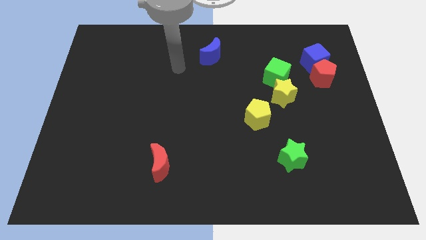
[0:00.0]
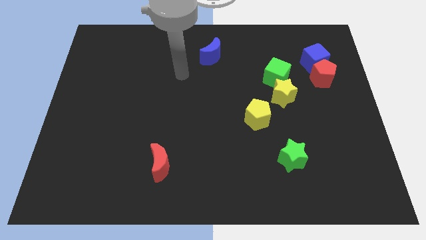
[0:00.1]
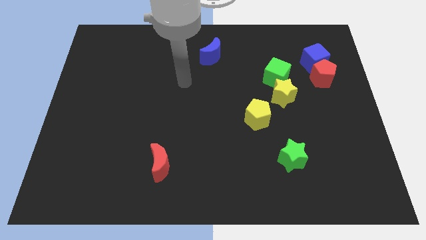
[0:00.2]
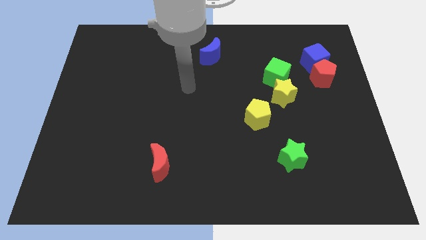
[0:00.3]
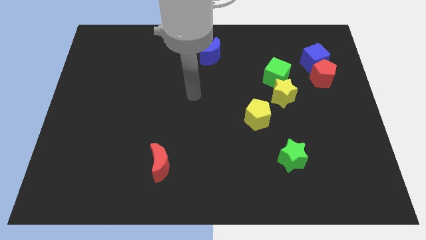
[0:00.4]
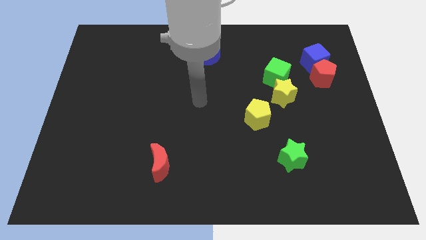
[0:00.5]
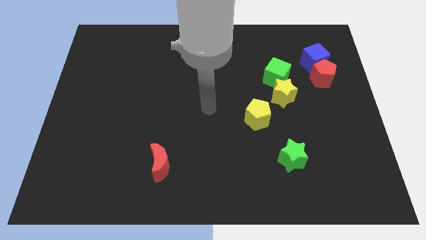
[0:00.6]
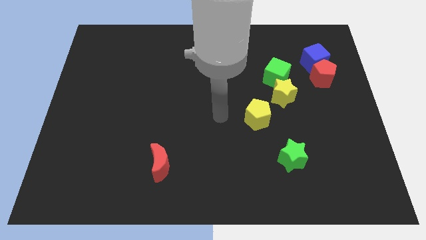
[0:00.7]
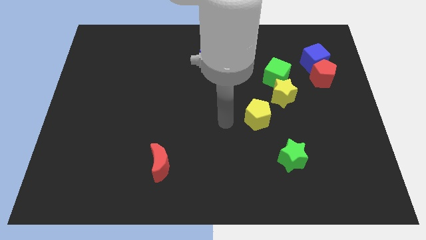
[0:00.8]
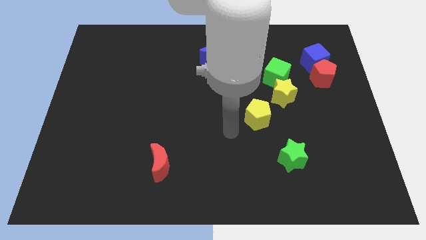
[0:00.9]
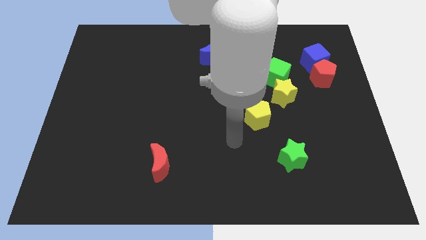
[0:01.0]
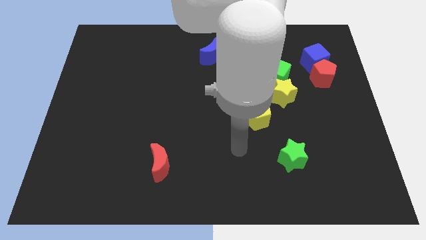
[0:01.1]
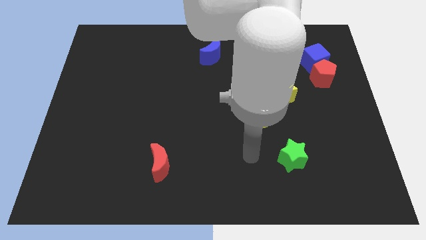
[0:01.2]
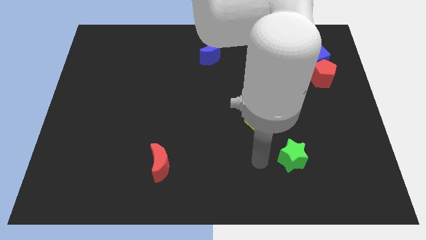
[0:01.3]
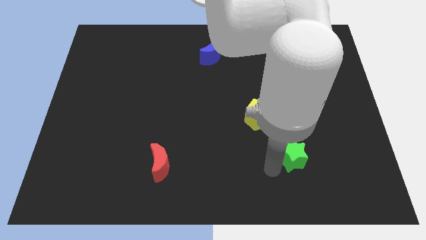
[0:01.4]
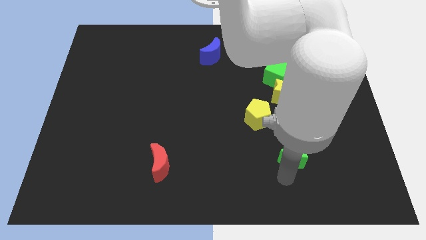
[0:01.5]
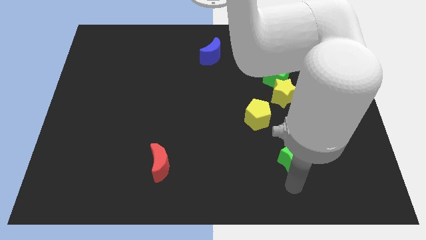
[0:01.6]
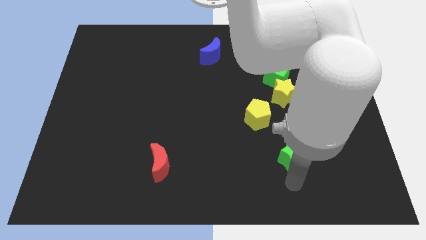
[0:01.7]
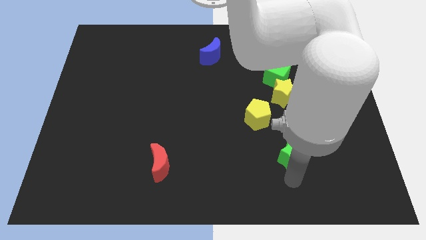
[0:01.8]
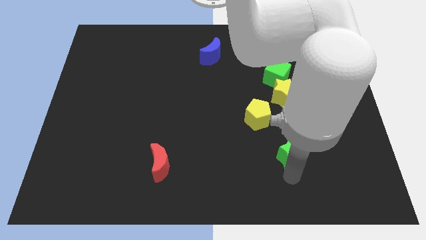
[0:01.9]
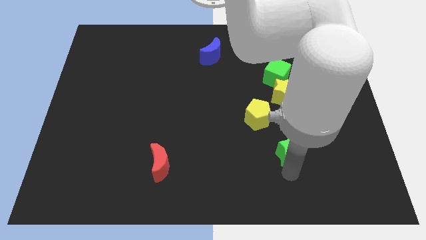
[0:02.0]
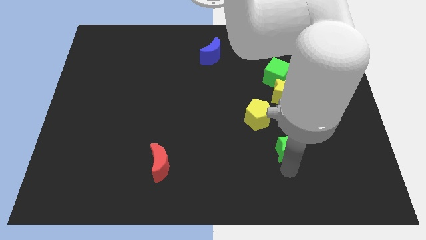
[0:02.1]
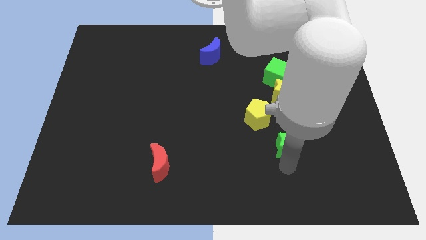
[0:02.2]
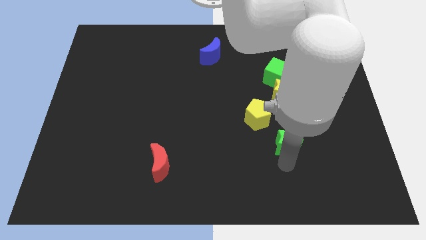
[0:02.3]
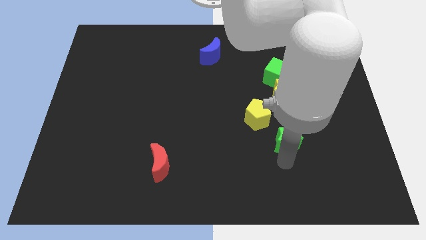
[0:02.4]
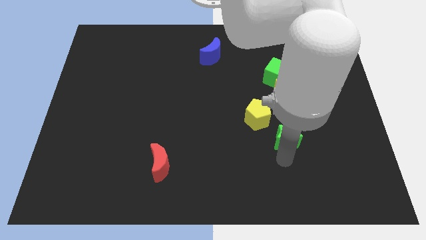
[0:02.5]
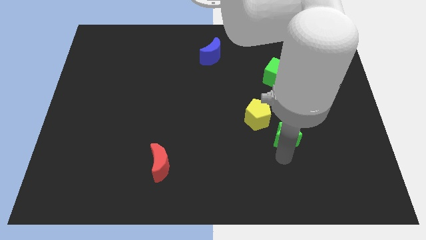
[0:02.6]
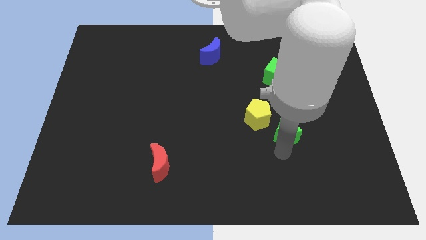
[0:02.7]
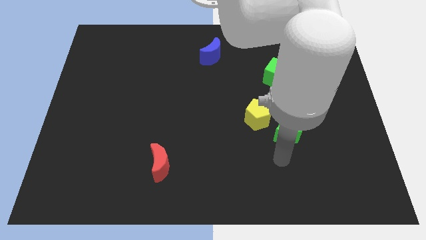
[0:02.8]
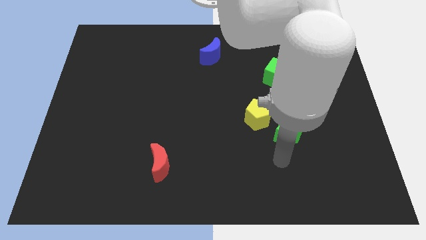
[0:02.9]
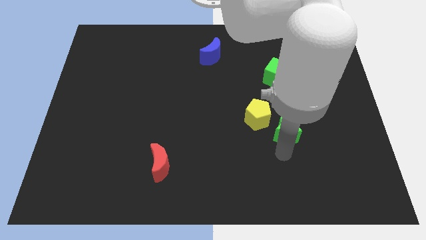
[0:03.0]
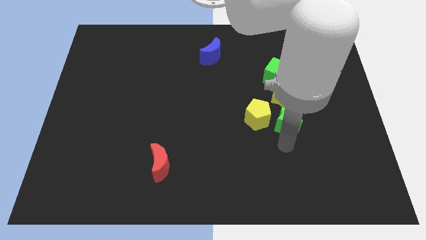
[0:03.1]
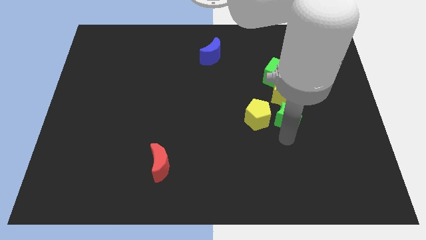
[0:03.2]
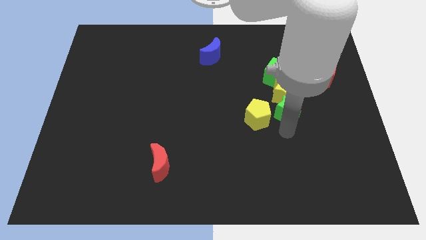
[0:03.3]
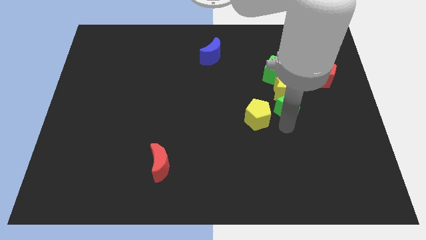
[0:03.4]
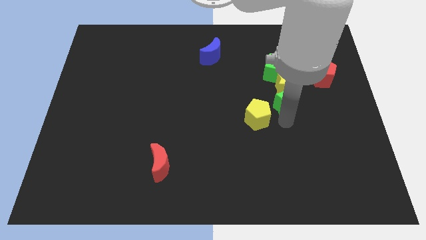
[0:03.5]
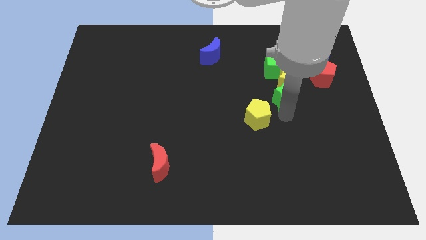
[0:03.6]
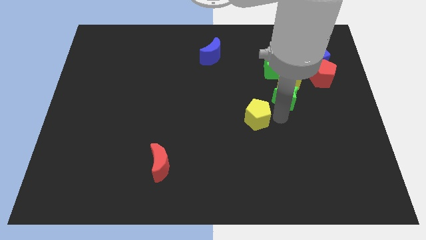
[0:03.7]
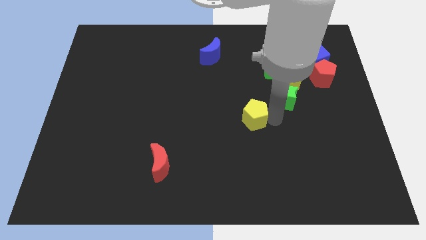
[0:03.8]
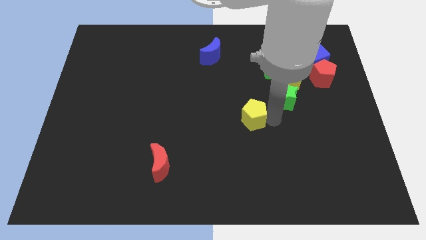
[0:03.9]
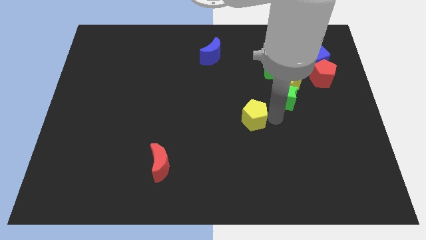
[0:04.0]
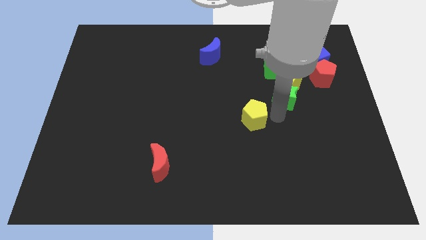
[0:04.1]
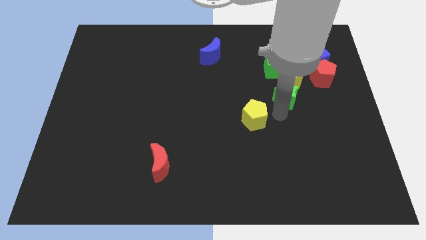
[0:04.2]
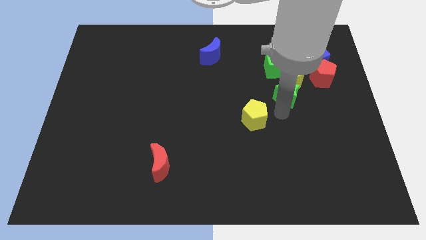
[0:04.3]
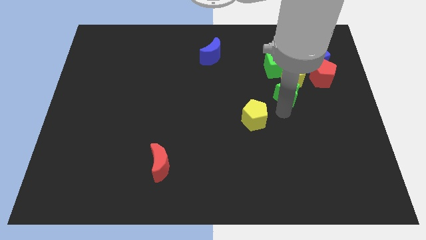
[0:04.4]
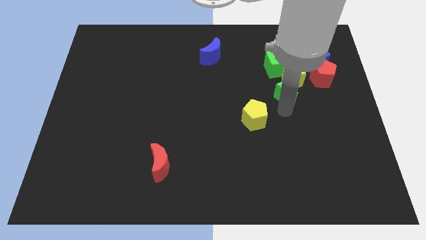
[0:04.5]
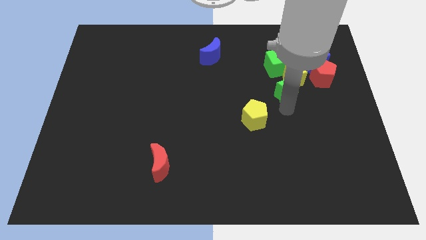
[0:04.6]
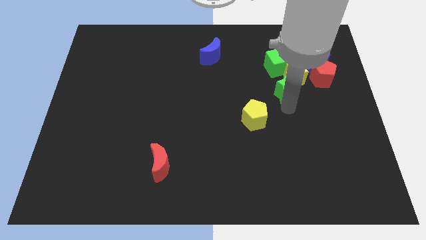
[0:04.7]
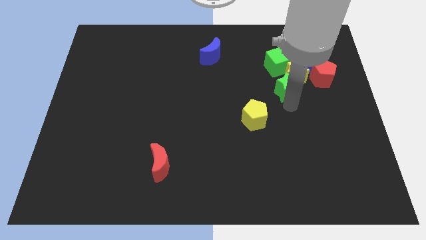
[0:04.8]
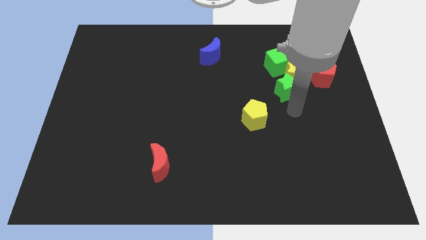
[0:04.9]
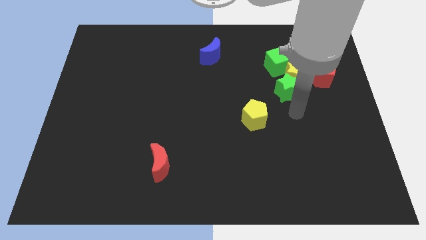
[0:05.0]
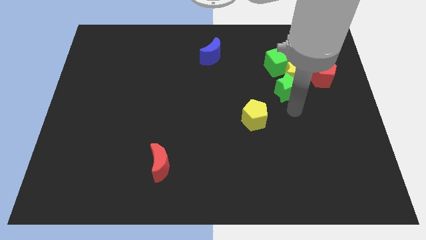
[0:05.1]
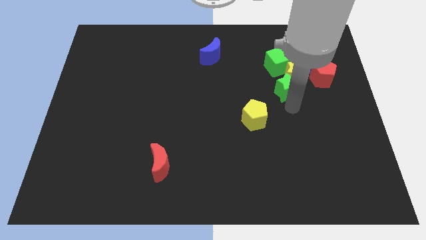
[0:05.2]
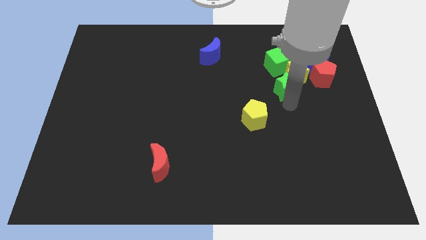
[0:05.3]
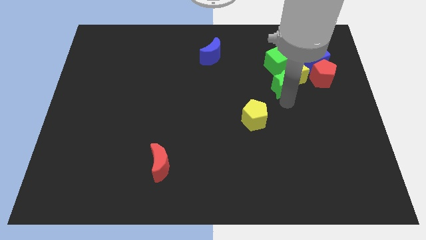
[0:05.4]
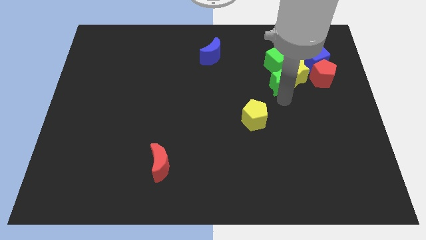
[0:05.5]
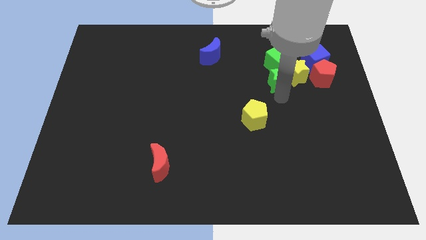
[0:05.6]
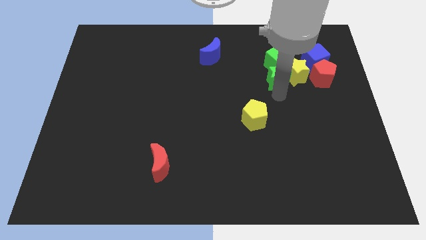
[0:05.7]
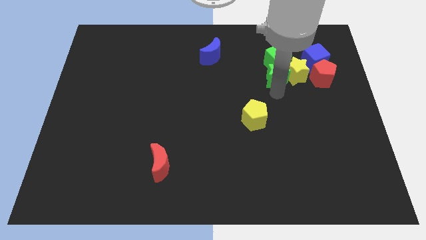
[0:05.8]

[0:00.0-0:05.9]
move the green star close to the green cube

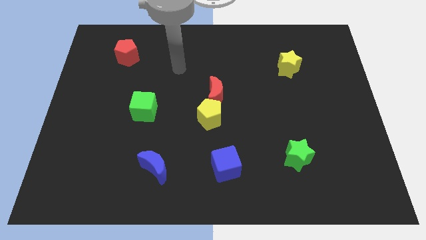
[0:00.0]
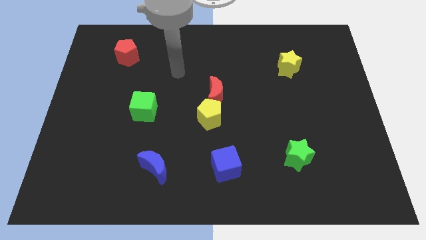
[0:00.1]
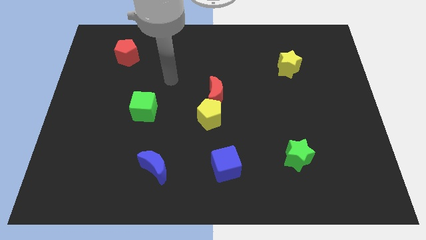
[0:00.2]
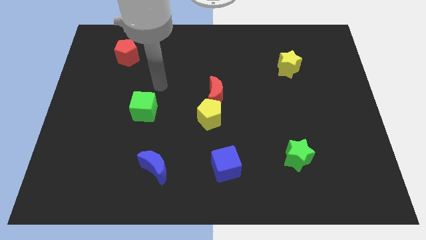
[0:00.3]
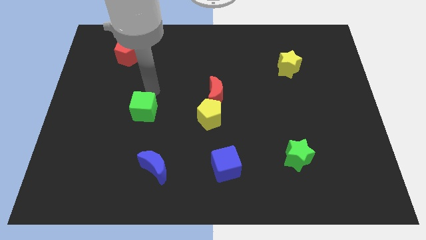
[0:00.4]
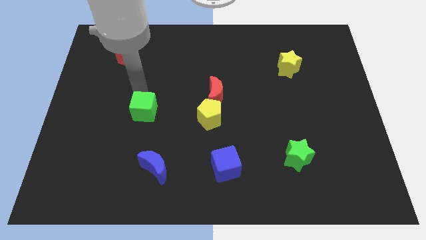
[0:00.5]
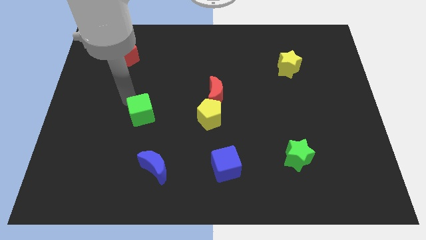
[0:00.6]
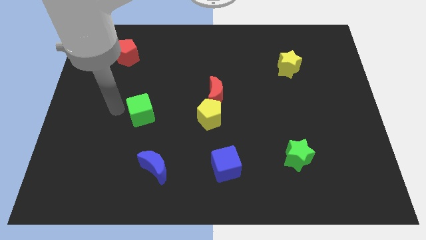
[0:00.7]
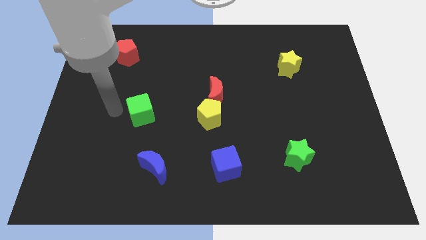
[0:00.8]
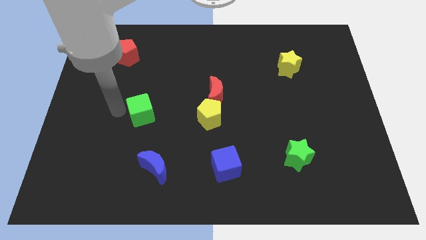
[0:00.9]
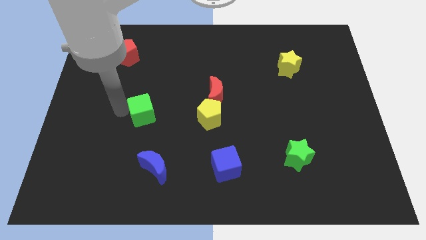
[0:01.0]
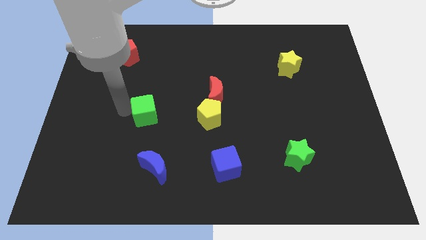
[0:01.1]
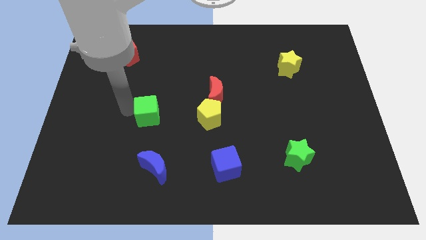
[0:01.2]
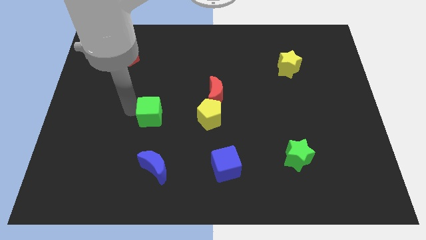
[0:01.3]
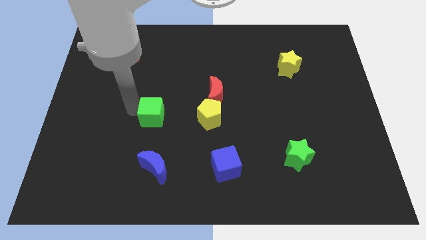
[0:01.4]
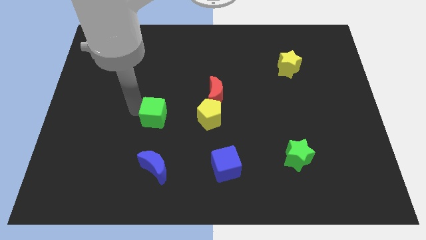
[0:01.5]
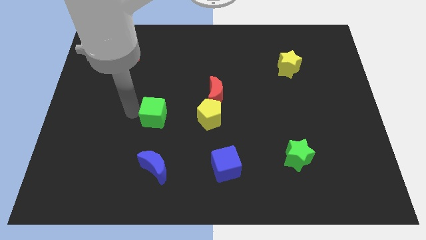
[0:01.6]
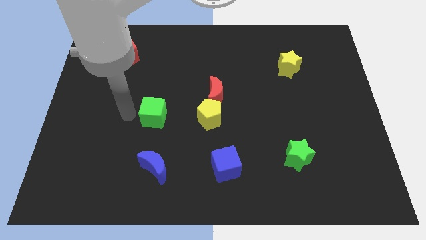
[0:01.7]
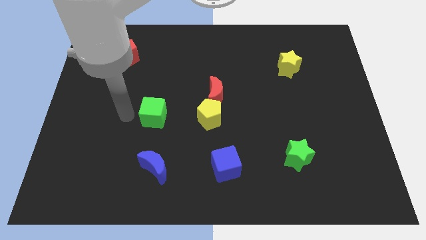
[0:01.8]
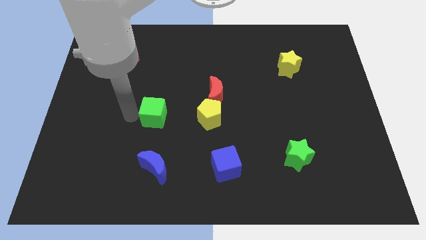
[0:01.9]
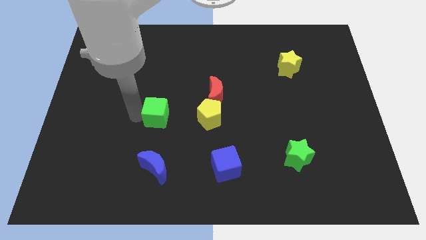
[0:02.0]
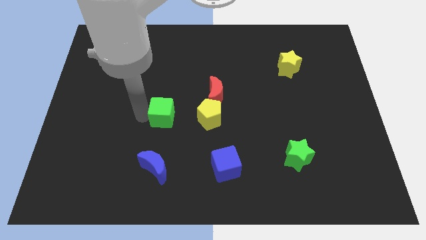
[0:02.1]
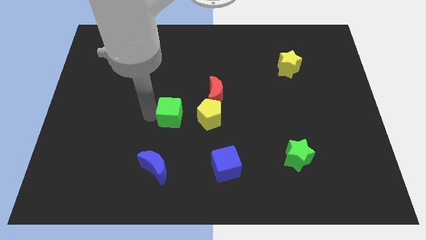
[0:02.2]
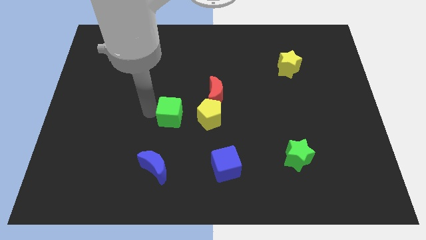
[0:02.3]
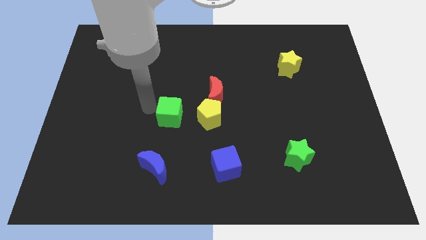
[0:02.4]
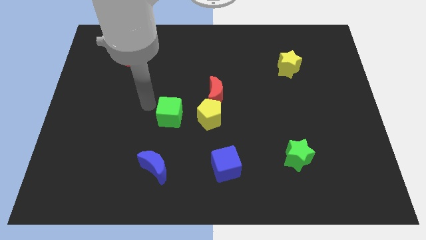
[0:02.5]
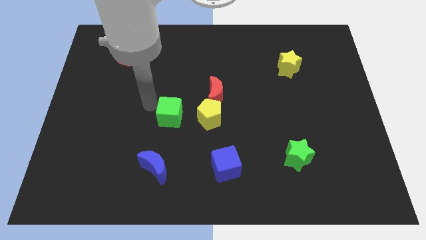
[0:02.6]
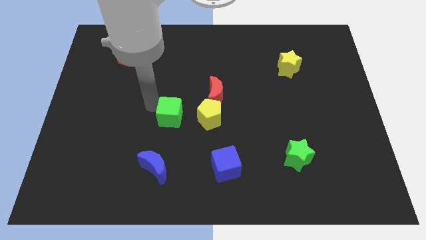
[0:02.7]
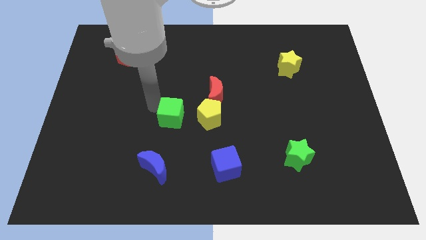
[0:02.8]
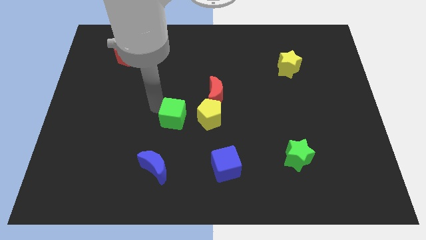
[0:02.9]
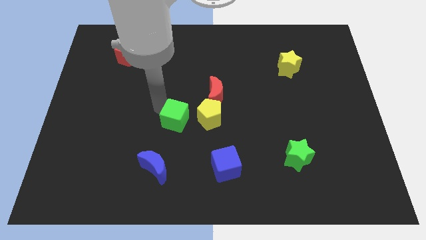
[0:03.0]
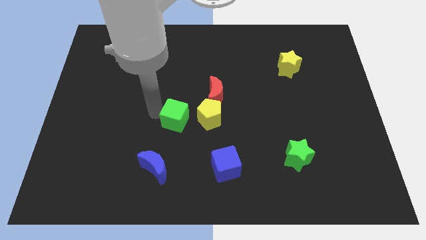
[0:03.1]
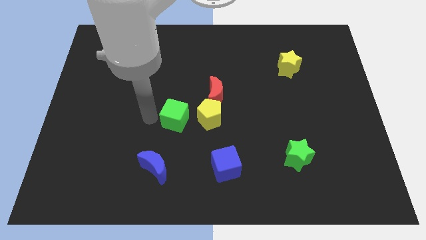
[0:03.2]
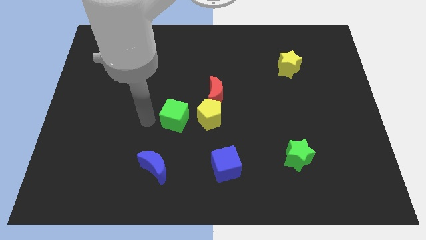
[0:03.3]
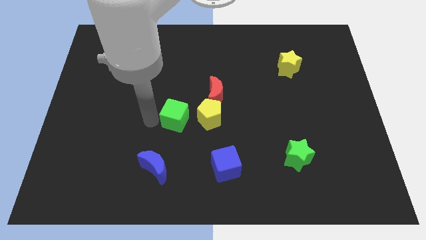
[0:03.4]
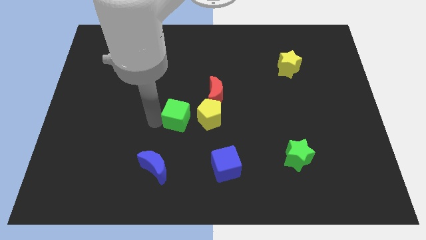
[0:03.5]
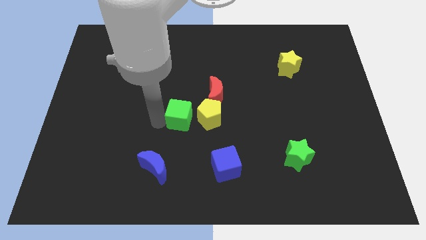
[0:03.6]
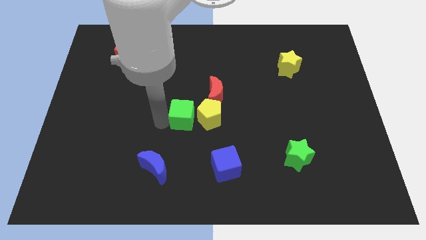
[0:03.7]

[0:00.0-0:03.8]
put the green cube next to the yellow pentagon
